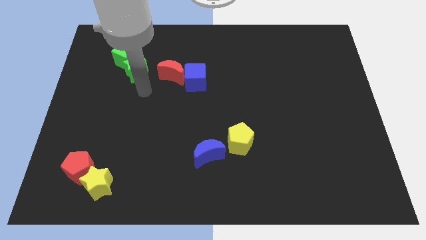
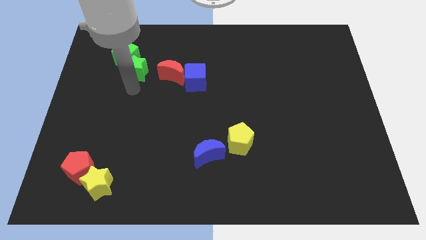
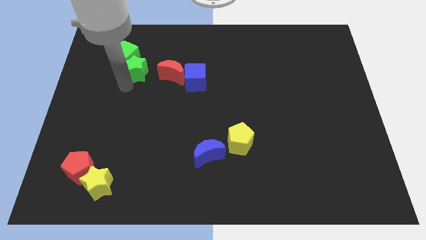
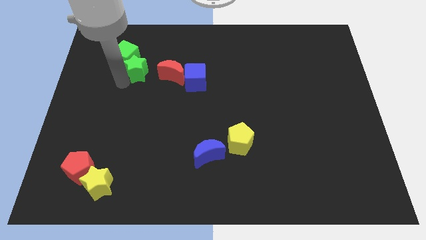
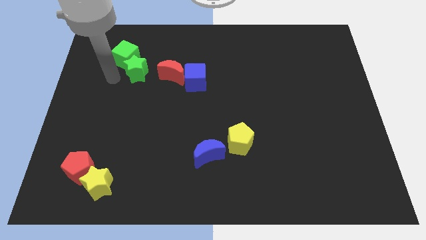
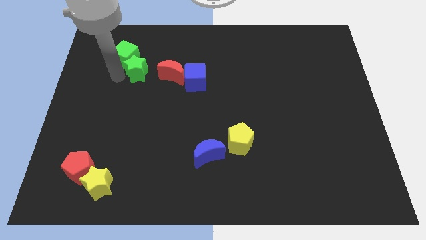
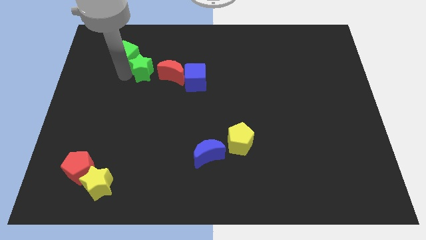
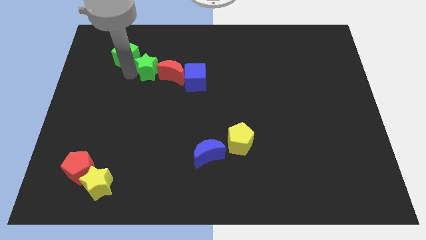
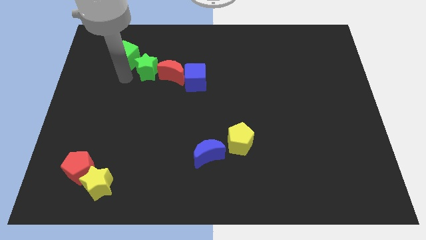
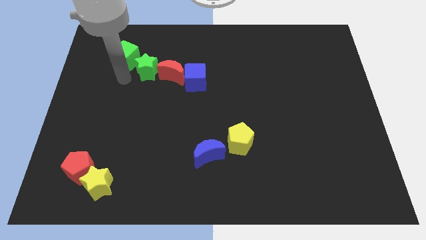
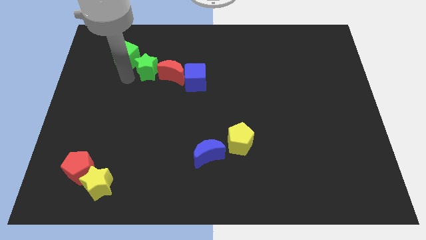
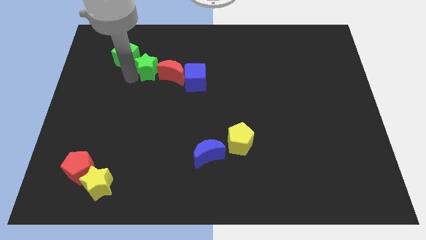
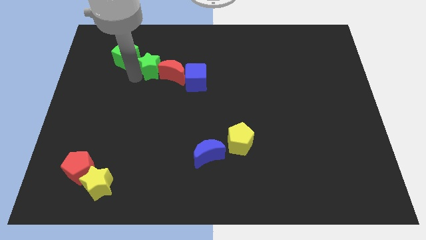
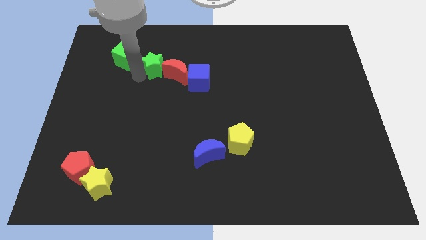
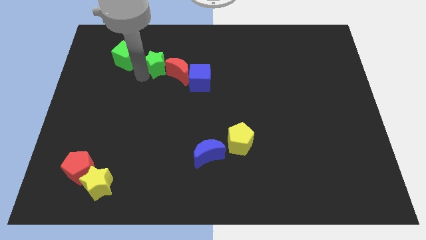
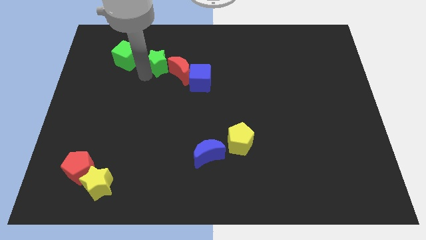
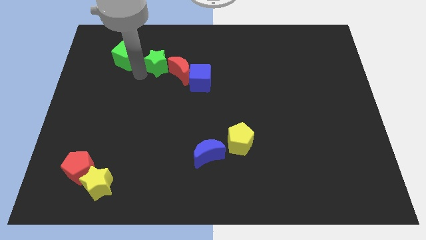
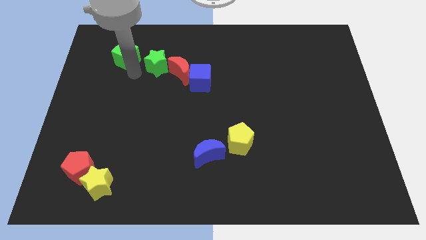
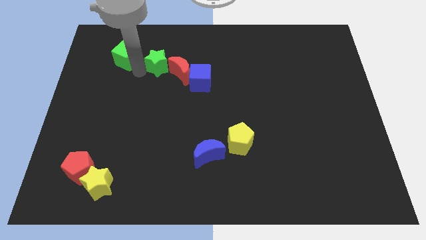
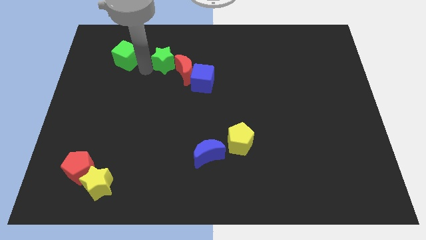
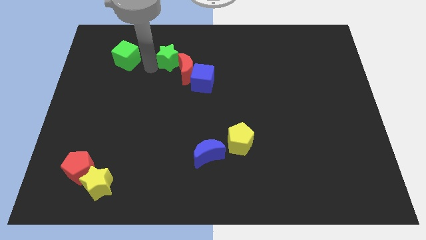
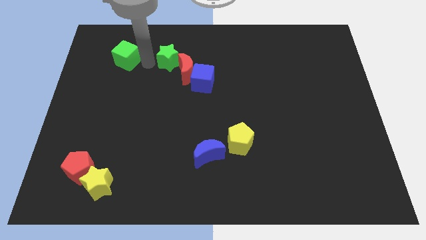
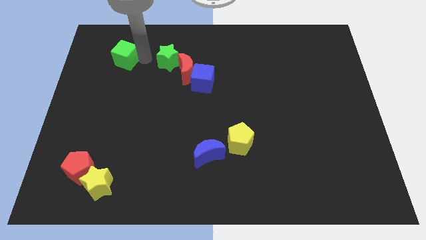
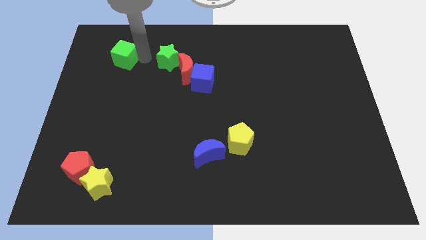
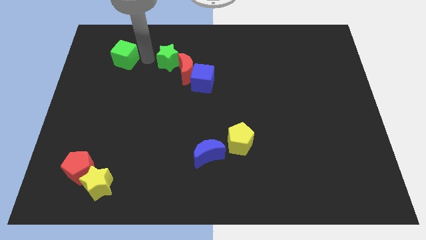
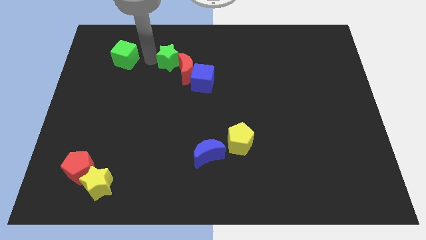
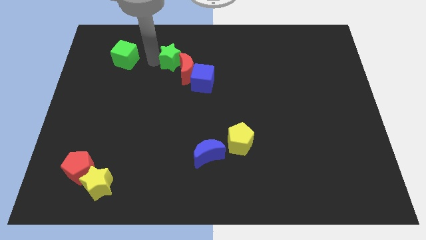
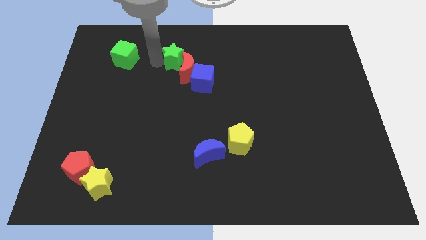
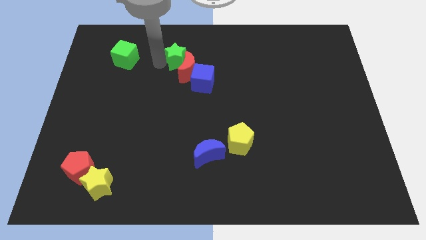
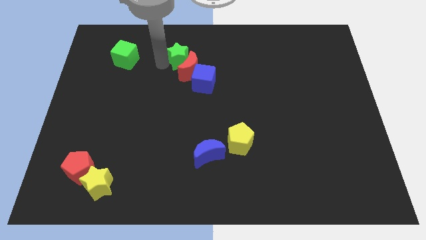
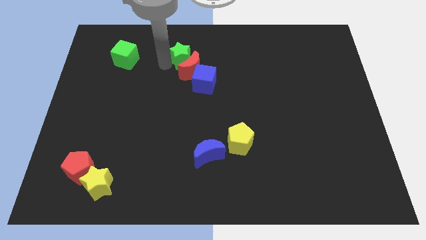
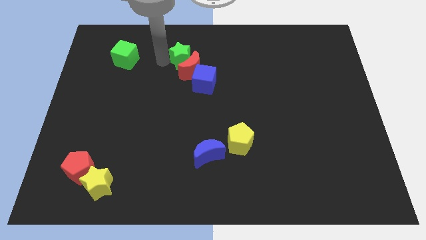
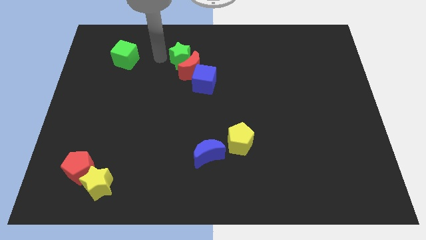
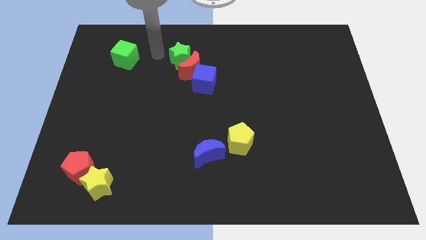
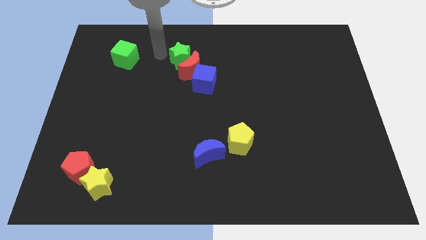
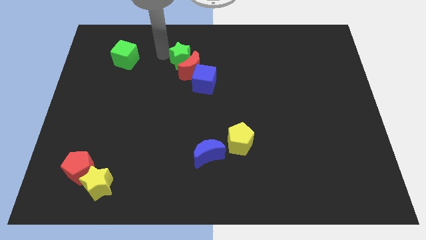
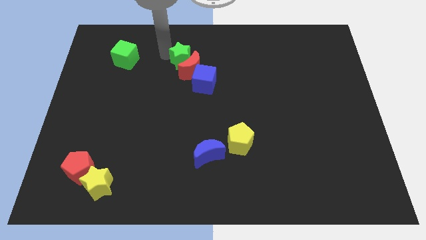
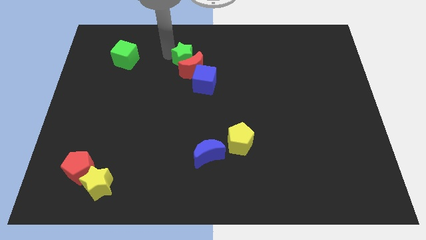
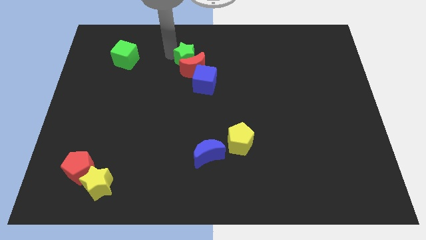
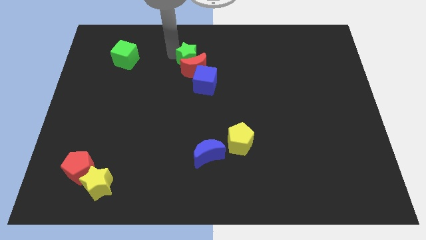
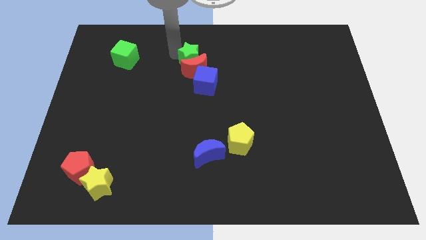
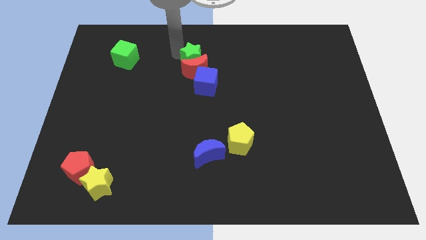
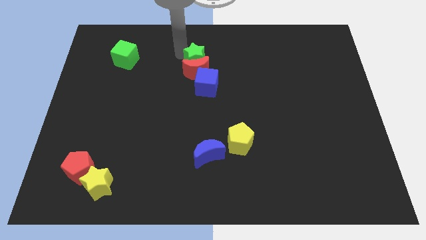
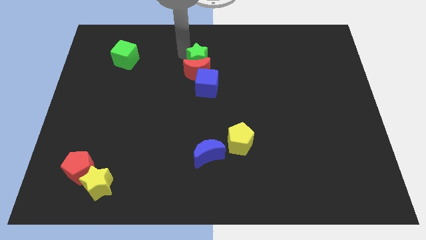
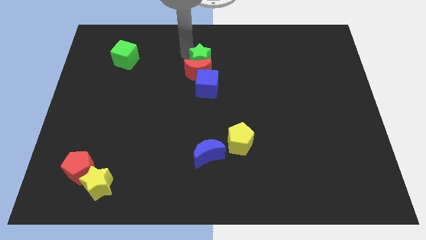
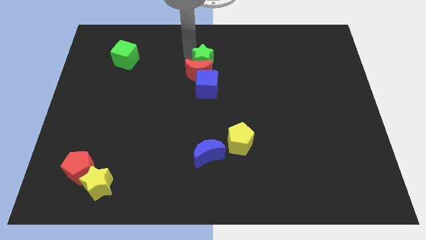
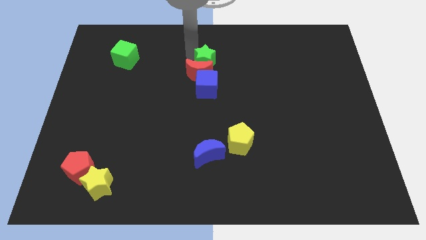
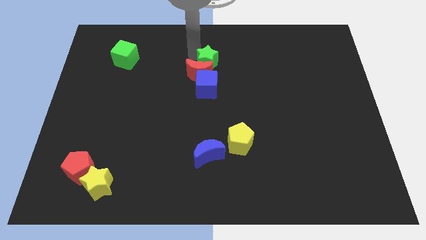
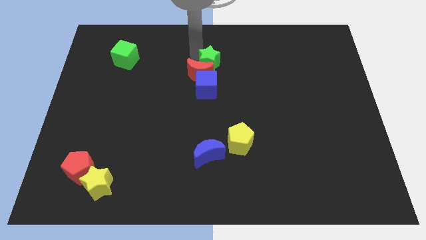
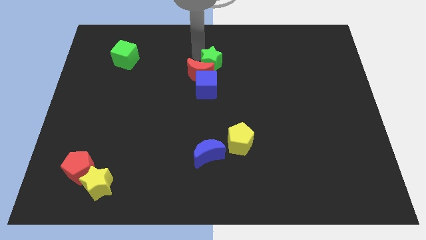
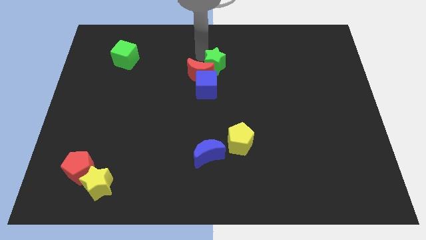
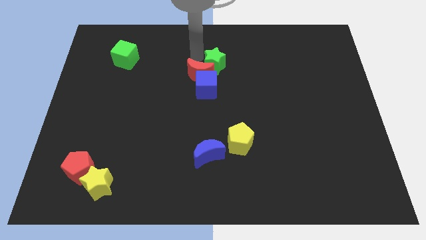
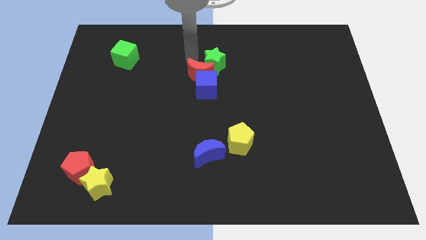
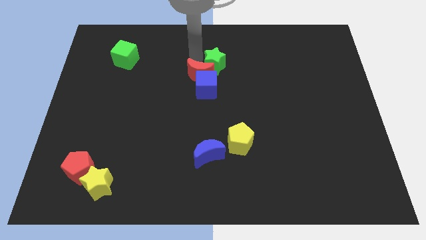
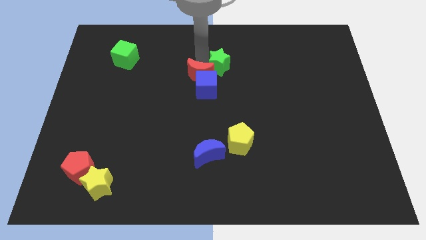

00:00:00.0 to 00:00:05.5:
push the green star right

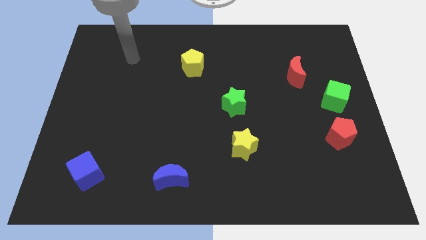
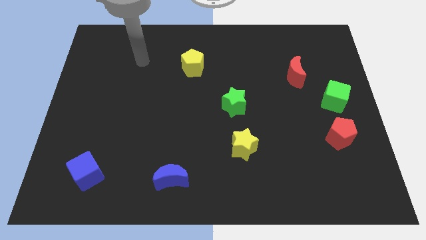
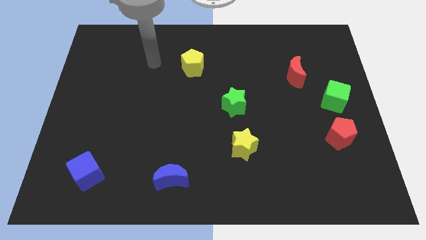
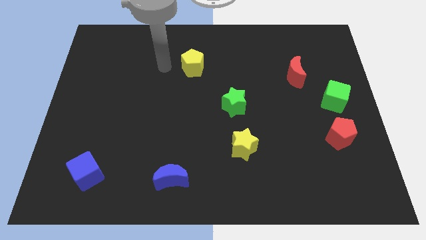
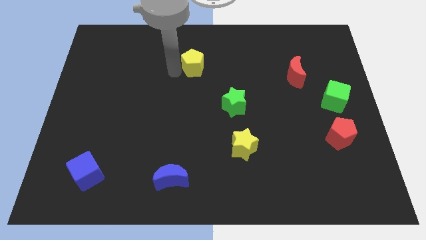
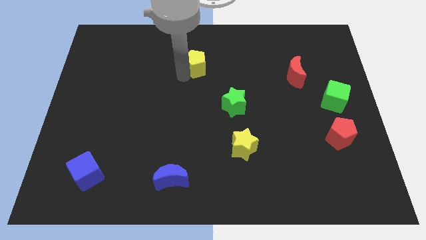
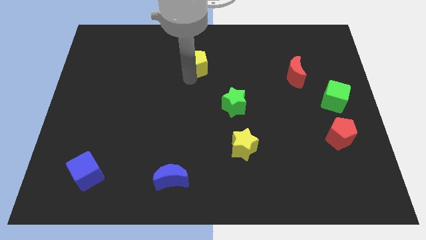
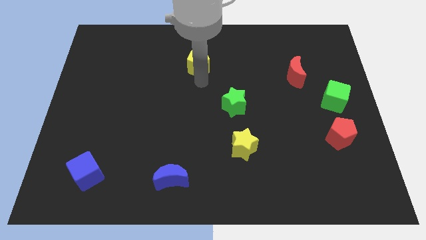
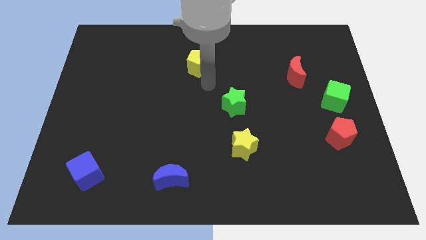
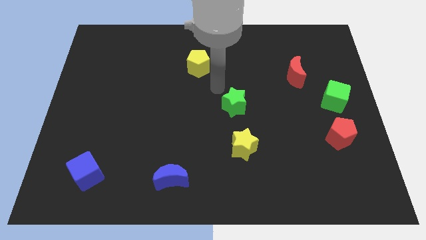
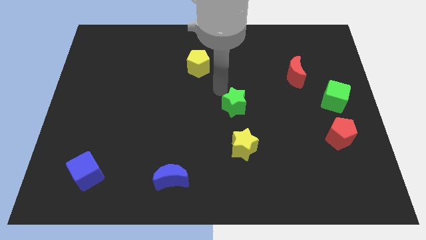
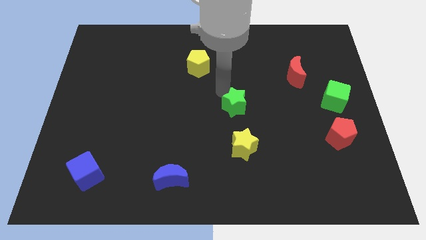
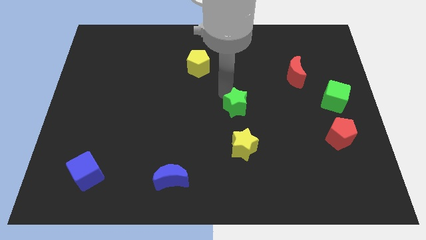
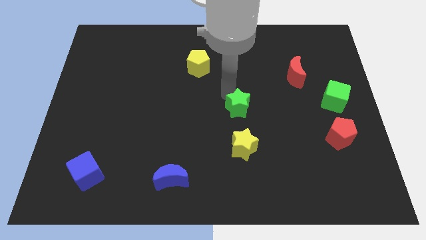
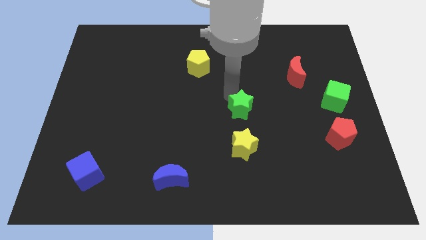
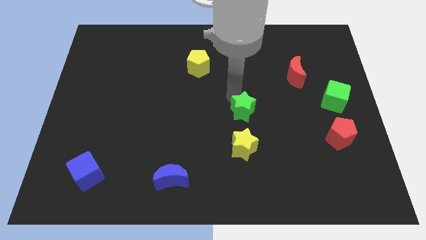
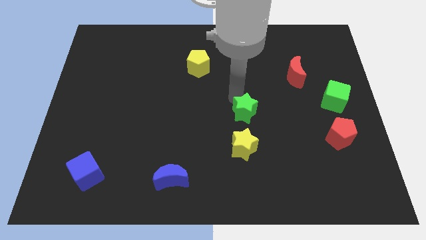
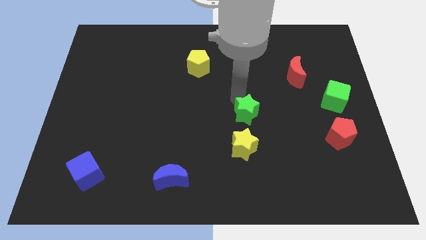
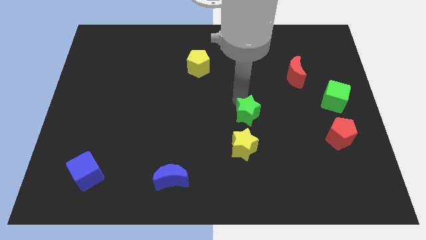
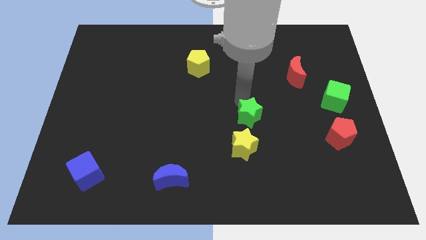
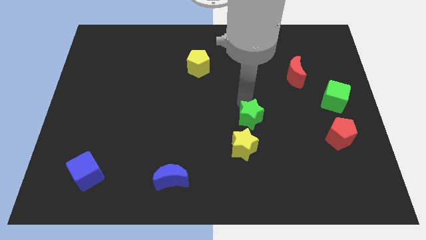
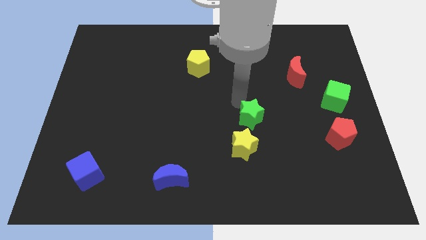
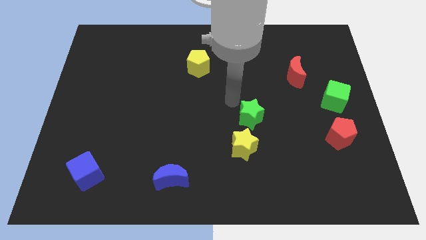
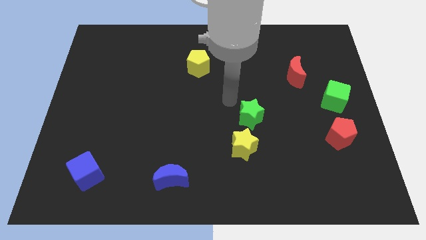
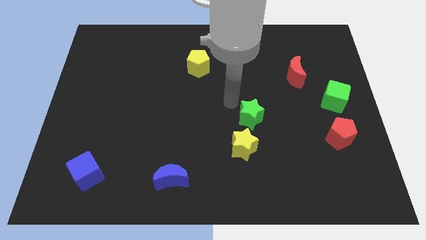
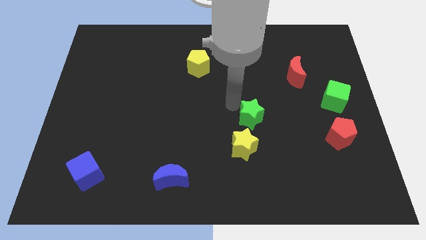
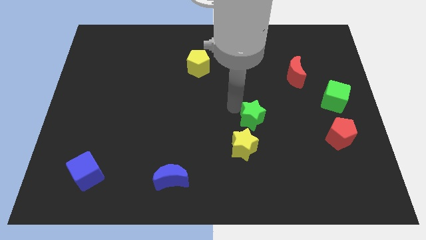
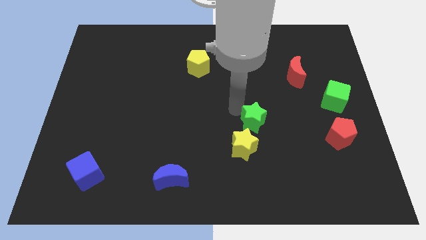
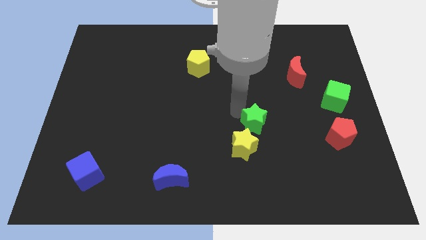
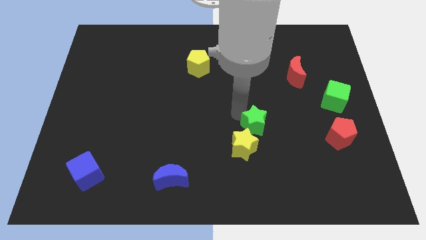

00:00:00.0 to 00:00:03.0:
move the green star diagonally downwards and to the right a little bit
